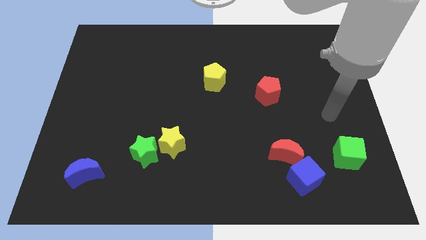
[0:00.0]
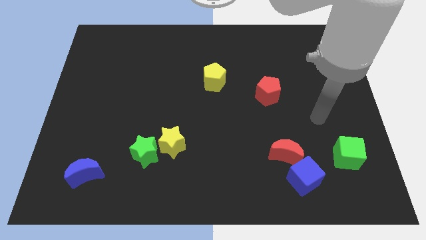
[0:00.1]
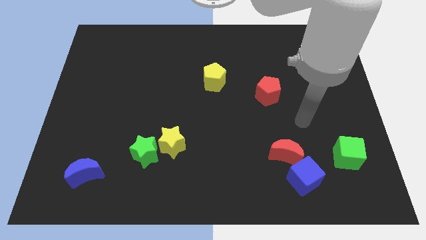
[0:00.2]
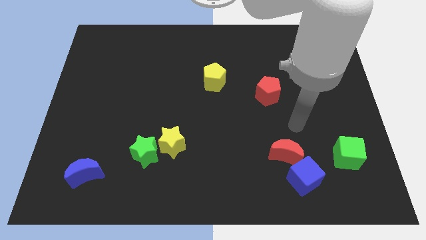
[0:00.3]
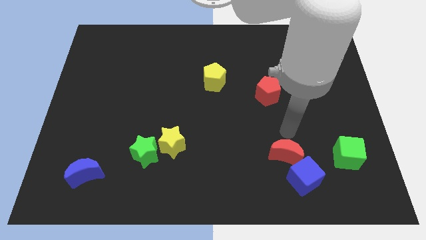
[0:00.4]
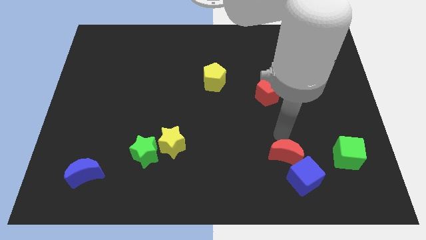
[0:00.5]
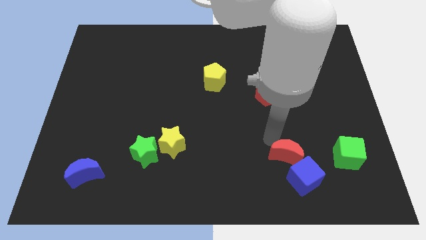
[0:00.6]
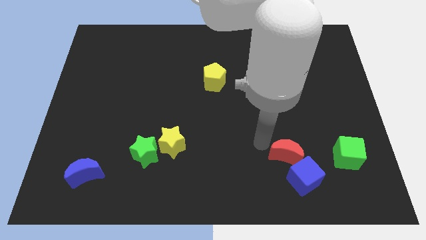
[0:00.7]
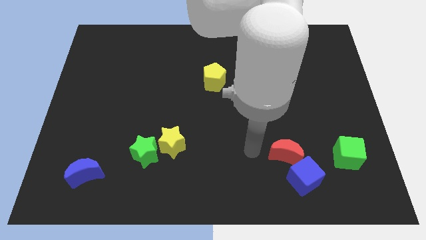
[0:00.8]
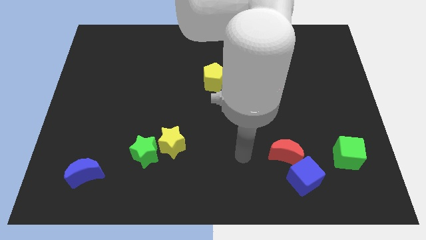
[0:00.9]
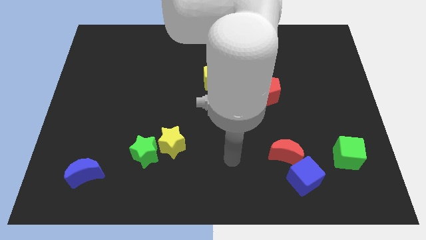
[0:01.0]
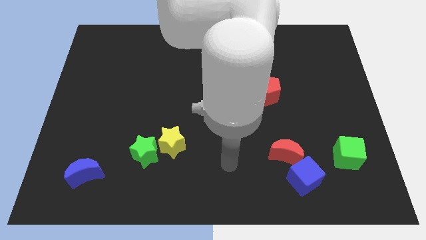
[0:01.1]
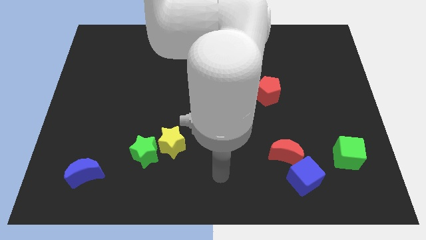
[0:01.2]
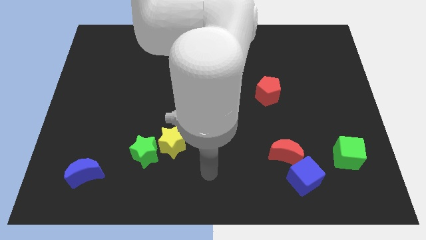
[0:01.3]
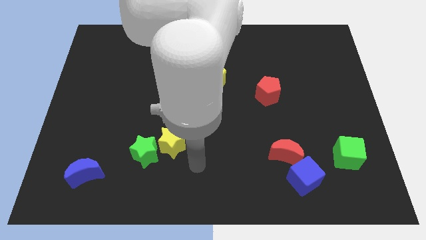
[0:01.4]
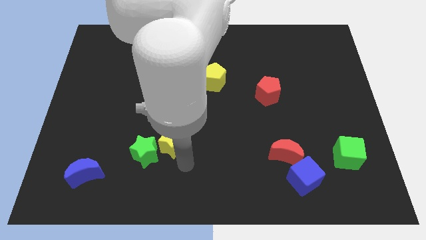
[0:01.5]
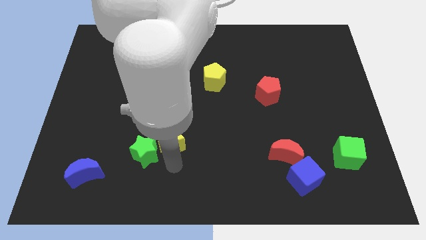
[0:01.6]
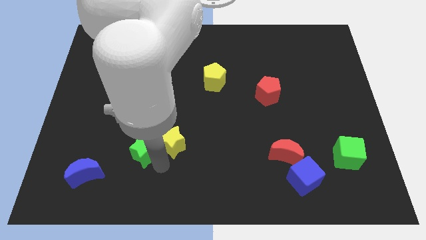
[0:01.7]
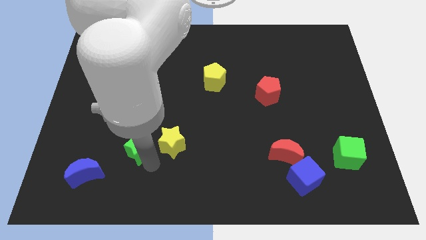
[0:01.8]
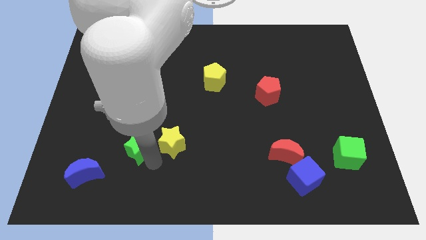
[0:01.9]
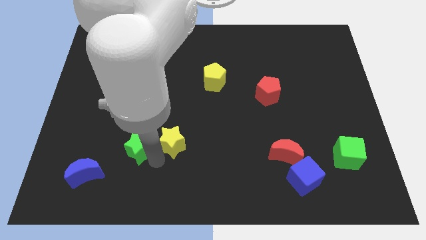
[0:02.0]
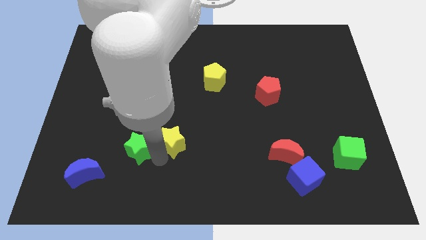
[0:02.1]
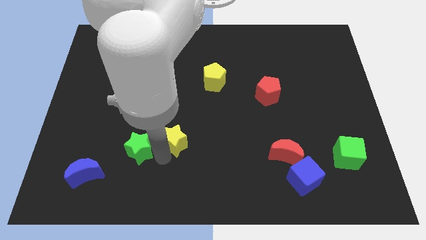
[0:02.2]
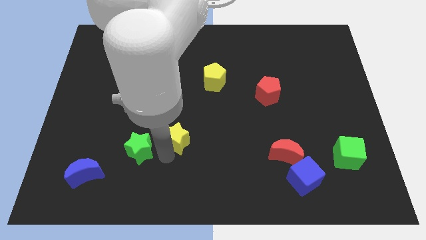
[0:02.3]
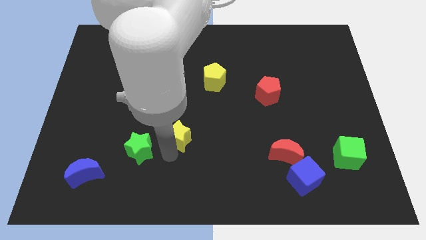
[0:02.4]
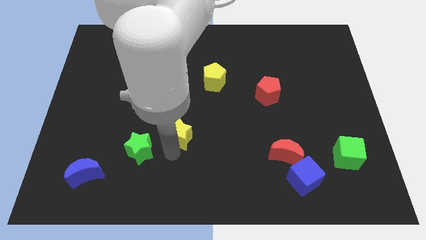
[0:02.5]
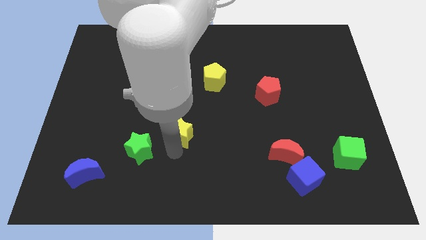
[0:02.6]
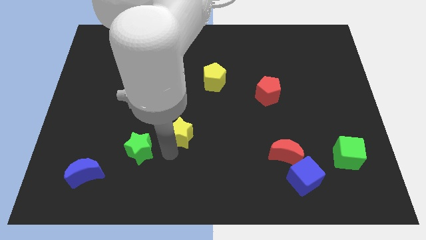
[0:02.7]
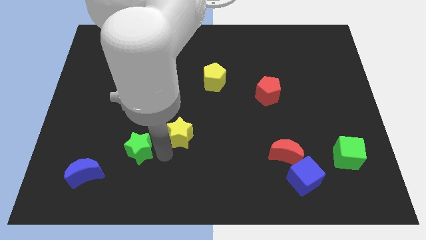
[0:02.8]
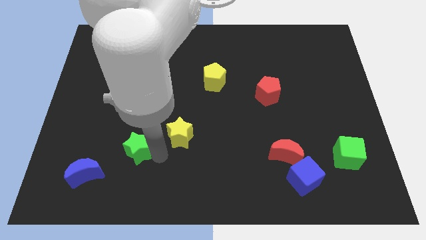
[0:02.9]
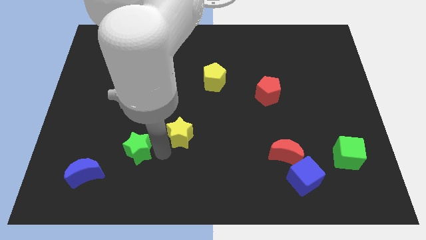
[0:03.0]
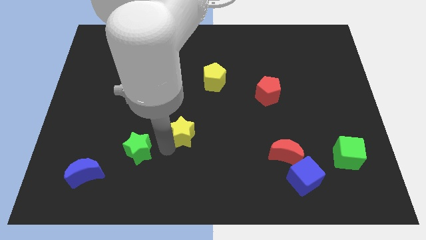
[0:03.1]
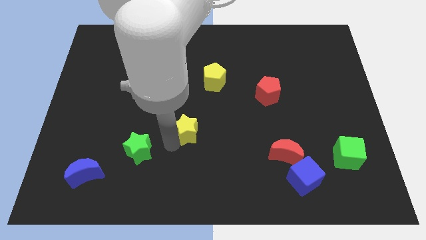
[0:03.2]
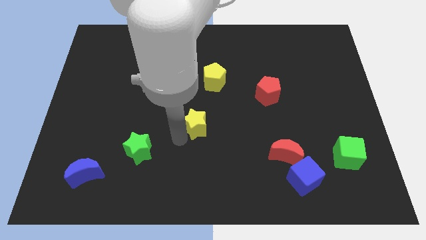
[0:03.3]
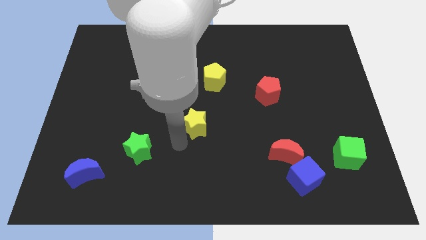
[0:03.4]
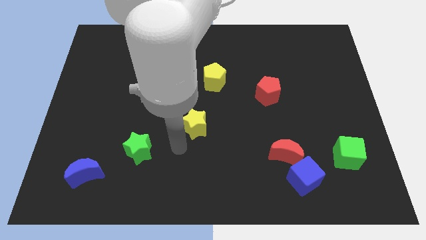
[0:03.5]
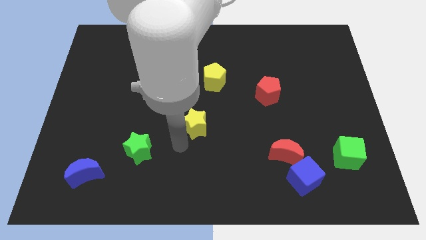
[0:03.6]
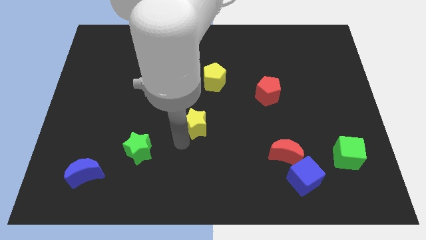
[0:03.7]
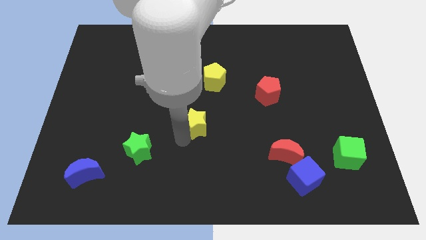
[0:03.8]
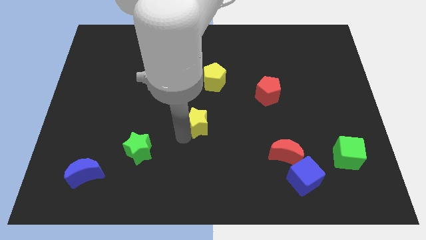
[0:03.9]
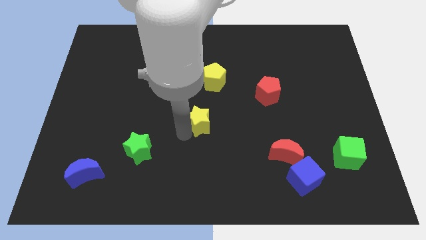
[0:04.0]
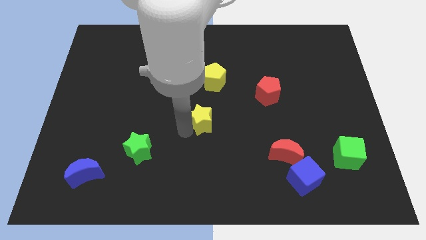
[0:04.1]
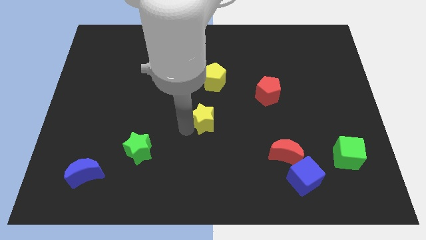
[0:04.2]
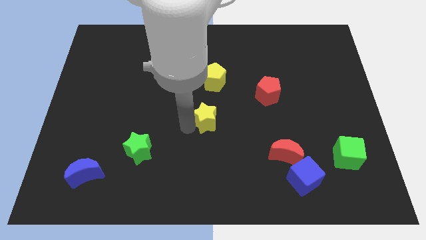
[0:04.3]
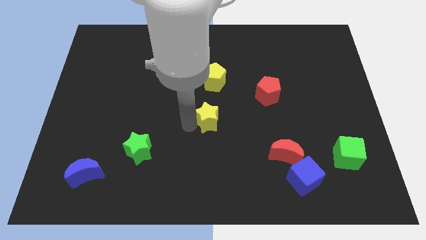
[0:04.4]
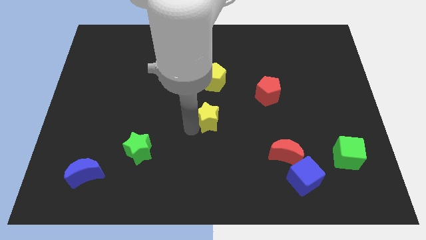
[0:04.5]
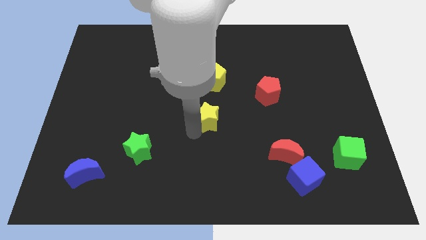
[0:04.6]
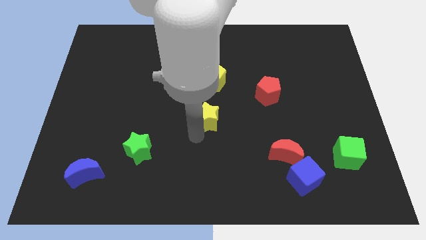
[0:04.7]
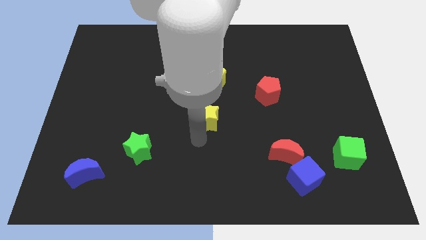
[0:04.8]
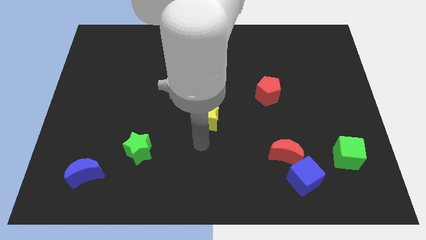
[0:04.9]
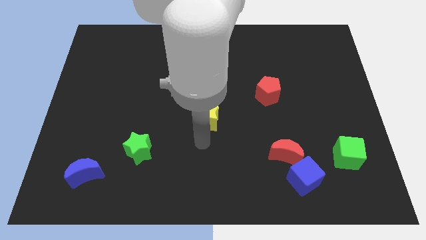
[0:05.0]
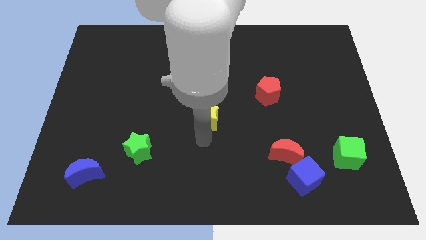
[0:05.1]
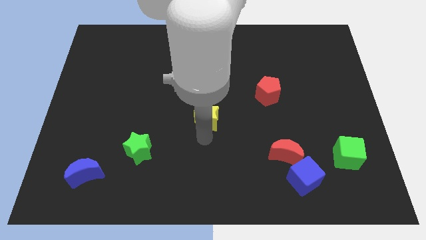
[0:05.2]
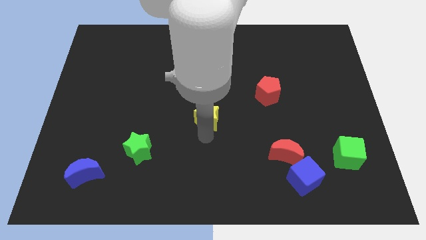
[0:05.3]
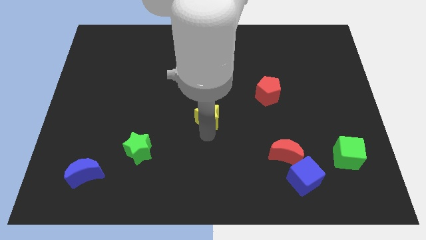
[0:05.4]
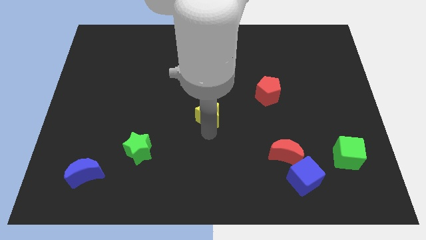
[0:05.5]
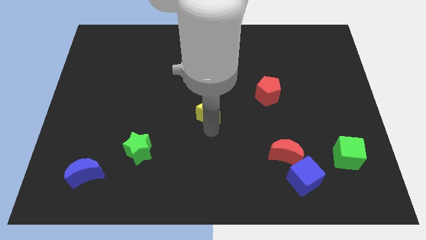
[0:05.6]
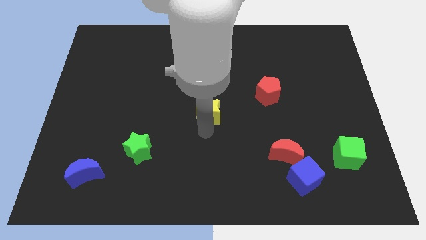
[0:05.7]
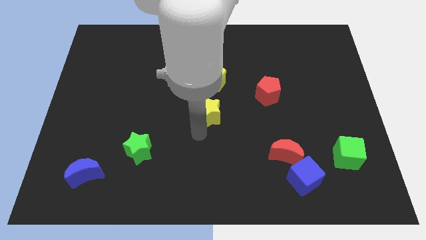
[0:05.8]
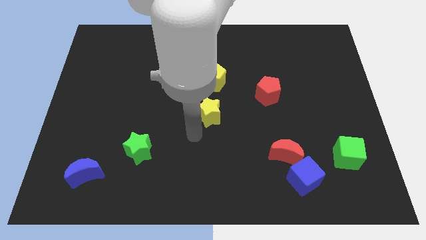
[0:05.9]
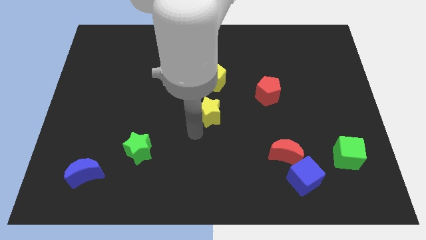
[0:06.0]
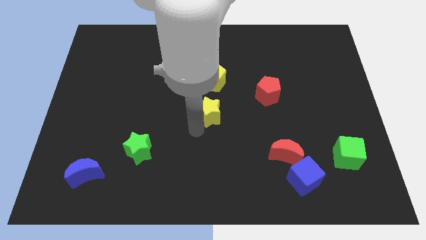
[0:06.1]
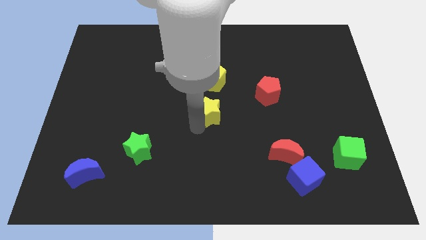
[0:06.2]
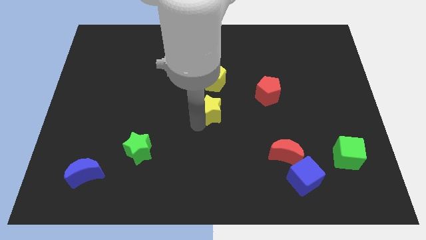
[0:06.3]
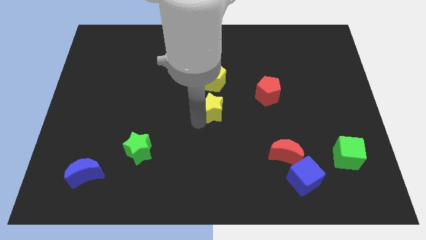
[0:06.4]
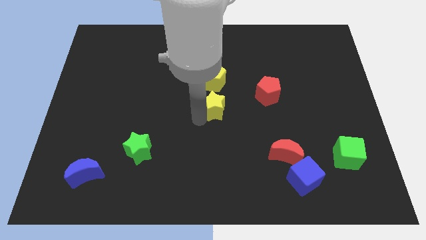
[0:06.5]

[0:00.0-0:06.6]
push the yellow star left of the red pentagon

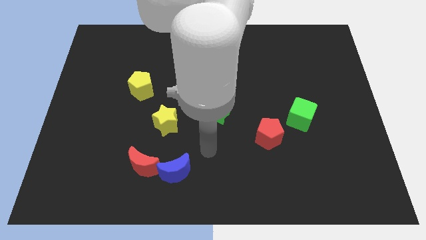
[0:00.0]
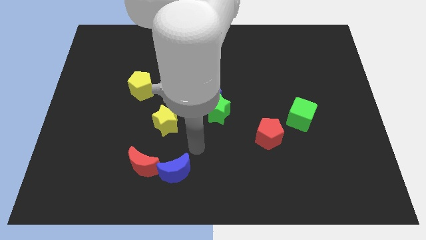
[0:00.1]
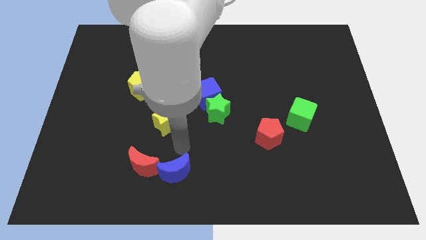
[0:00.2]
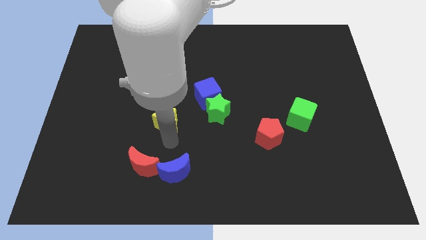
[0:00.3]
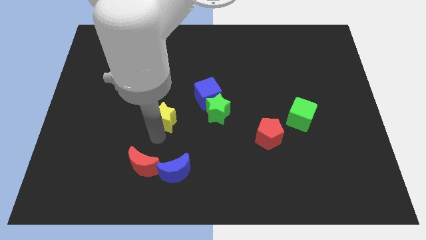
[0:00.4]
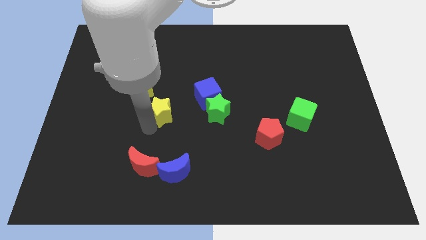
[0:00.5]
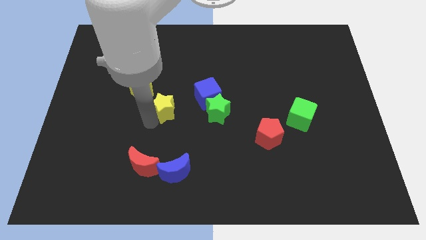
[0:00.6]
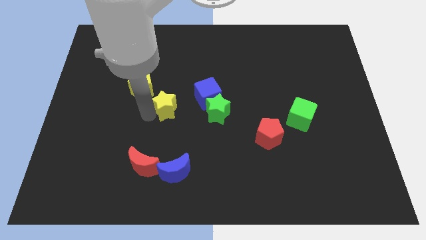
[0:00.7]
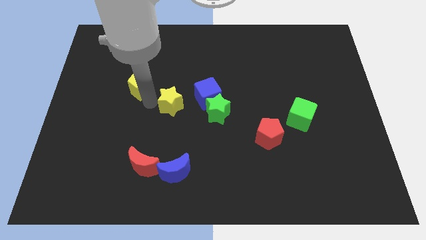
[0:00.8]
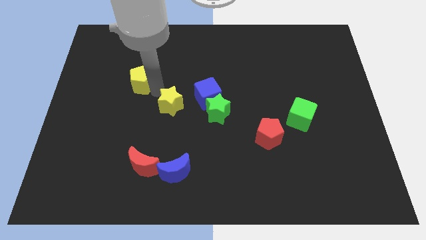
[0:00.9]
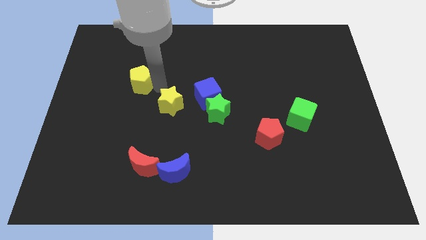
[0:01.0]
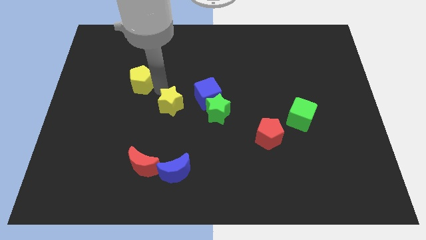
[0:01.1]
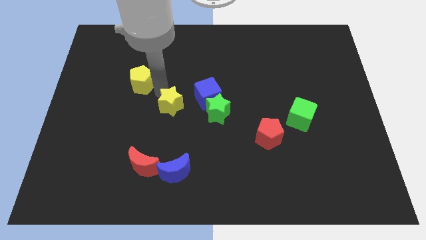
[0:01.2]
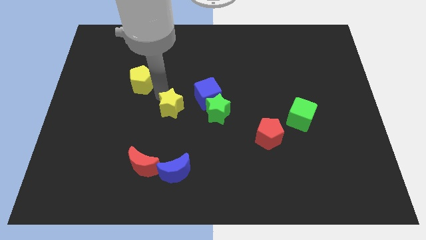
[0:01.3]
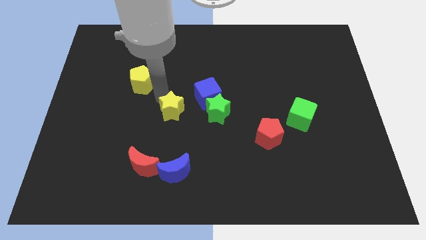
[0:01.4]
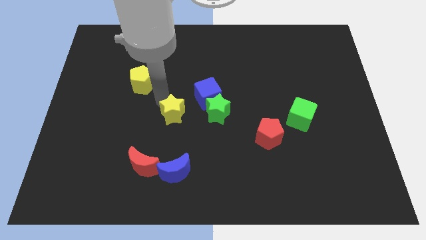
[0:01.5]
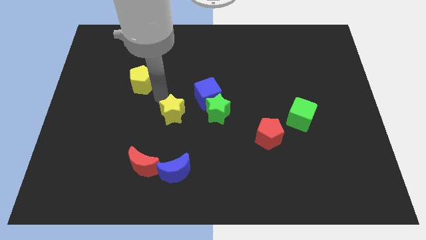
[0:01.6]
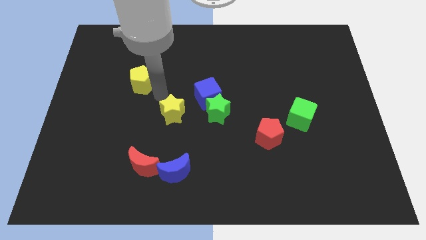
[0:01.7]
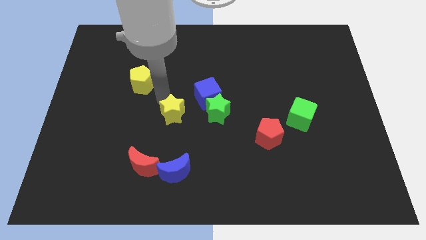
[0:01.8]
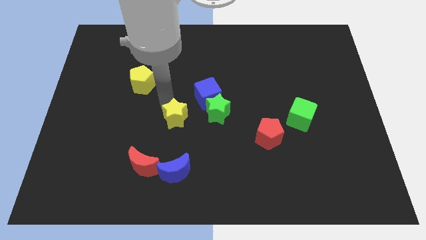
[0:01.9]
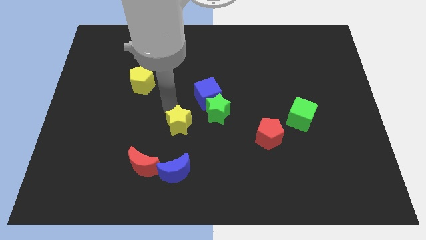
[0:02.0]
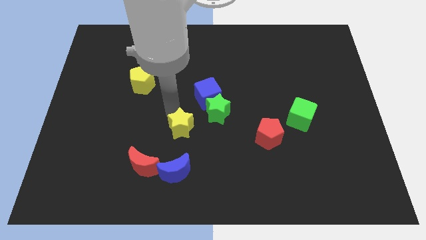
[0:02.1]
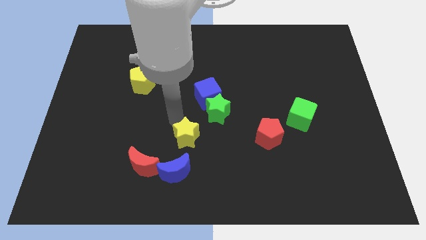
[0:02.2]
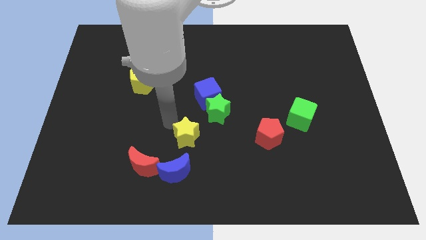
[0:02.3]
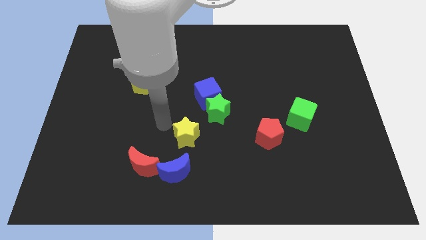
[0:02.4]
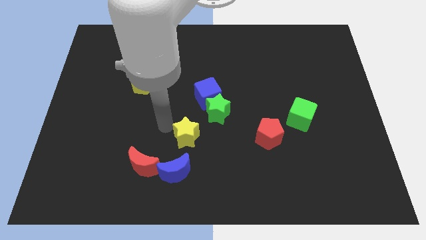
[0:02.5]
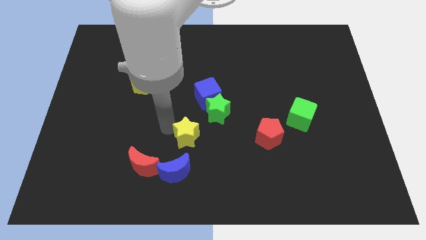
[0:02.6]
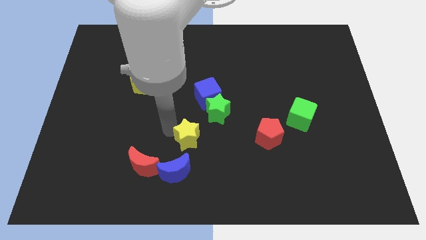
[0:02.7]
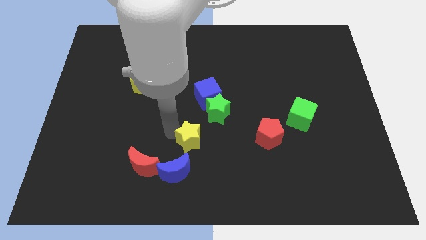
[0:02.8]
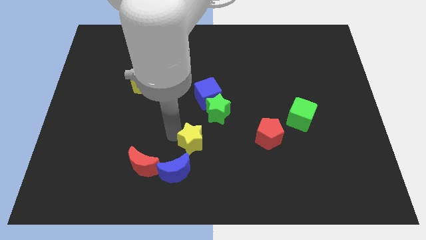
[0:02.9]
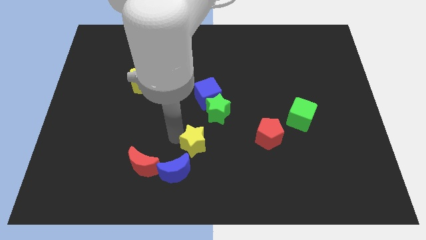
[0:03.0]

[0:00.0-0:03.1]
move the yellow star below the green star
